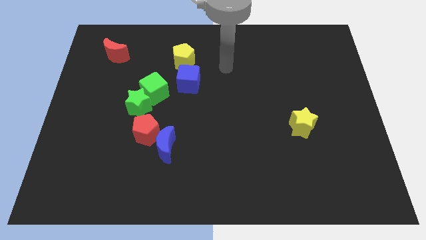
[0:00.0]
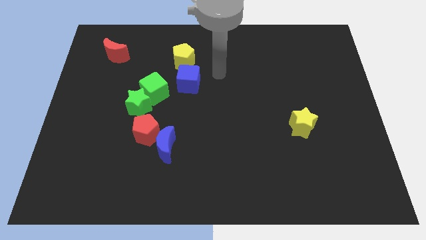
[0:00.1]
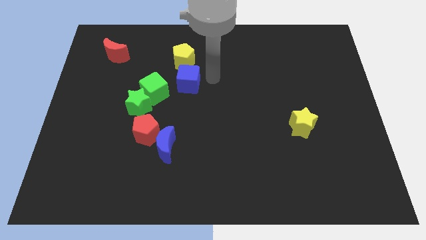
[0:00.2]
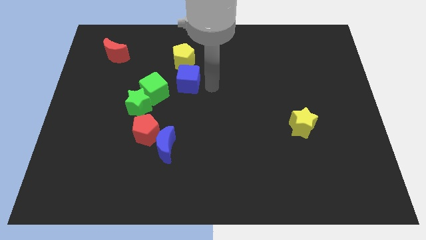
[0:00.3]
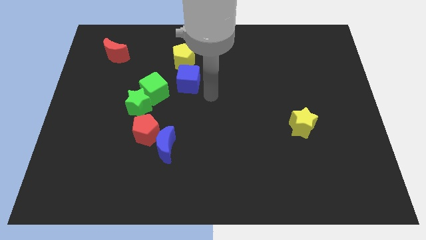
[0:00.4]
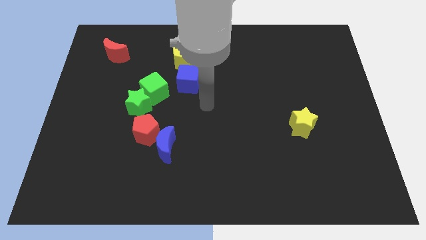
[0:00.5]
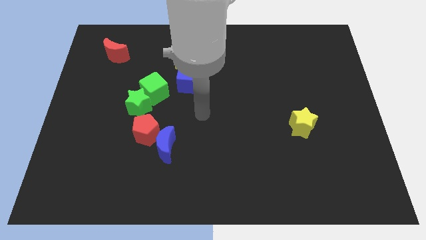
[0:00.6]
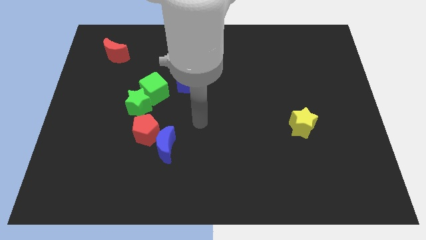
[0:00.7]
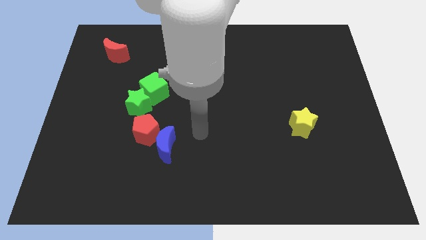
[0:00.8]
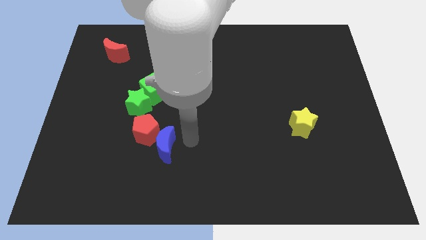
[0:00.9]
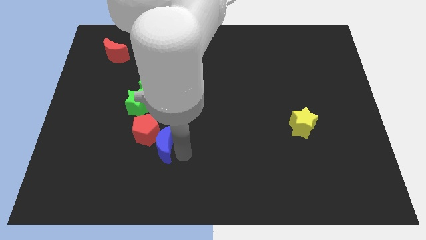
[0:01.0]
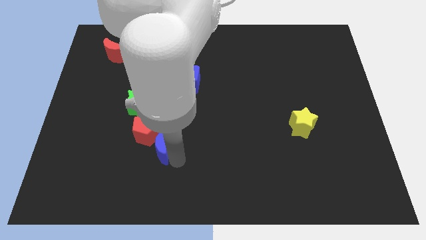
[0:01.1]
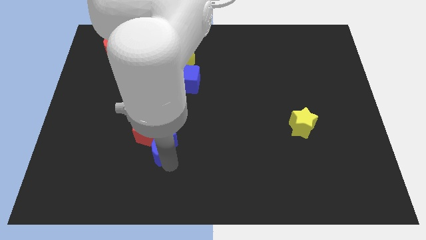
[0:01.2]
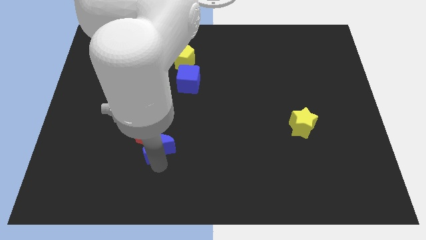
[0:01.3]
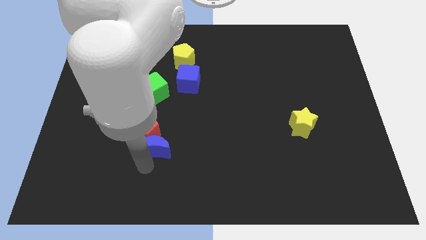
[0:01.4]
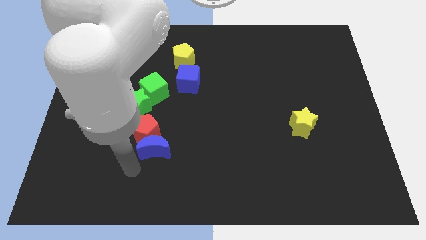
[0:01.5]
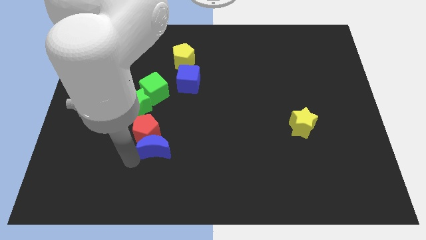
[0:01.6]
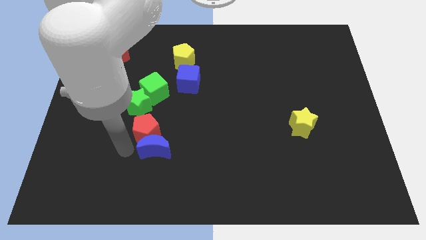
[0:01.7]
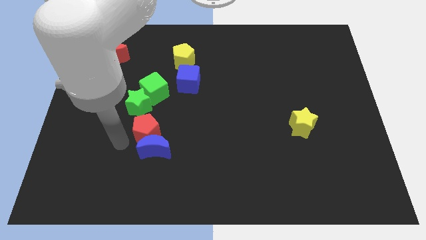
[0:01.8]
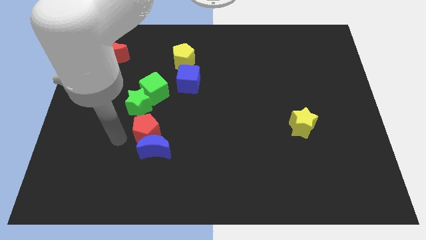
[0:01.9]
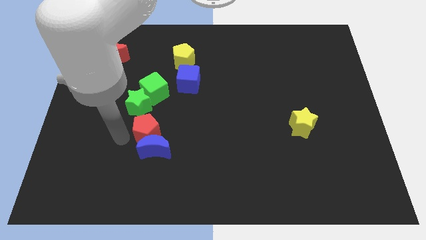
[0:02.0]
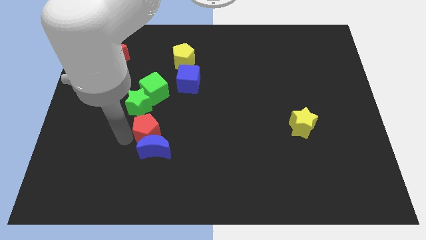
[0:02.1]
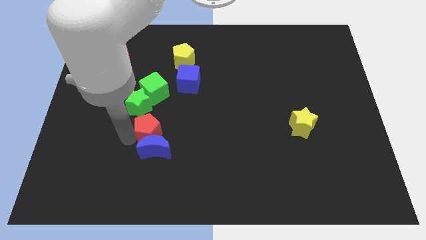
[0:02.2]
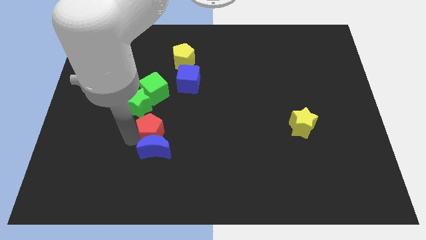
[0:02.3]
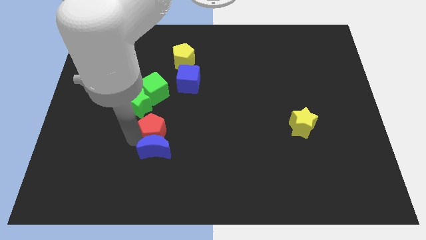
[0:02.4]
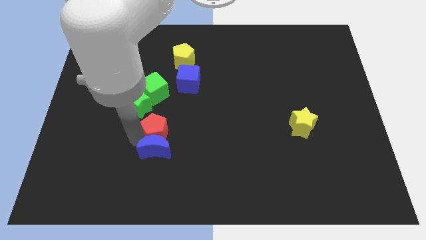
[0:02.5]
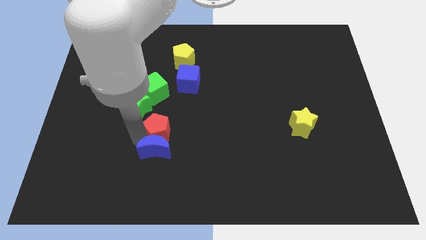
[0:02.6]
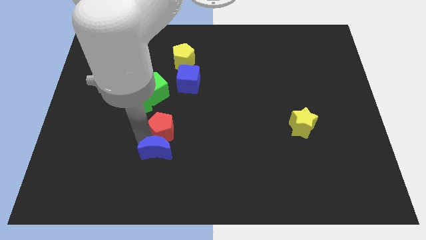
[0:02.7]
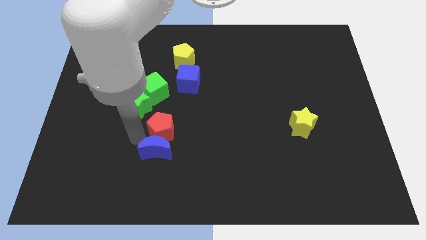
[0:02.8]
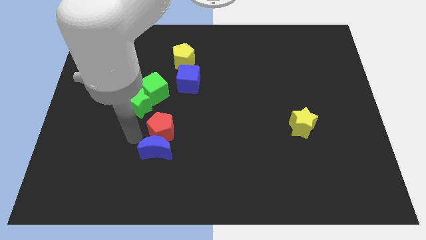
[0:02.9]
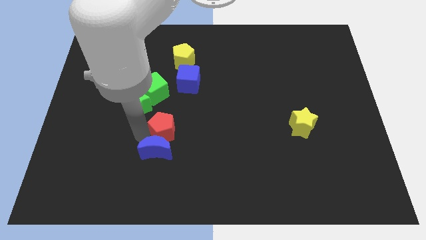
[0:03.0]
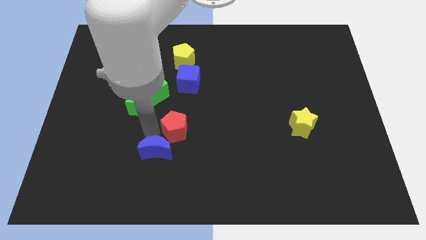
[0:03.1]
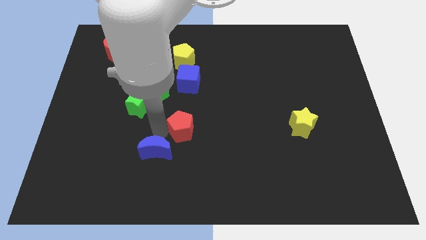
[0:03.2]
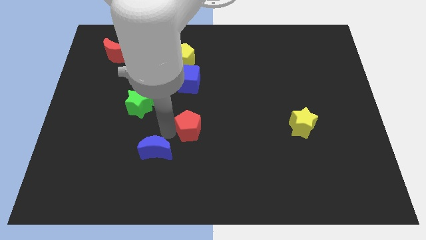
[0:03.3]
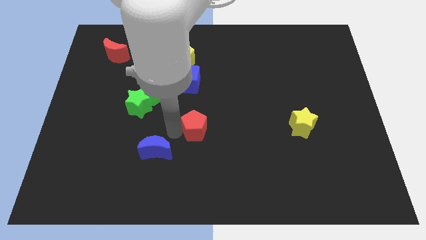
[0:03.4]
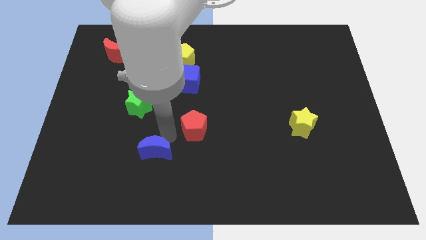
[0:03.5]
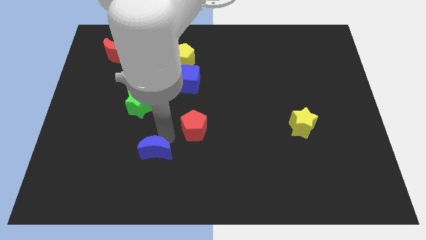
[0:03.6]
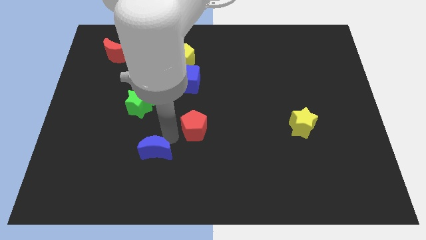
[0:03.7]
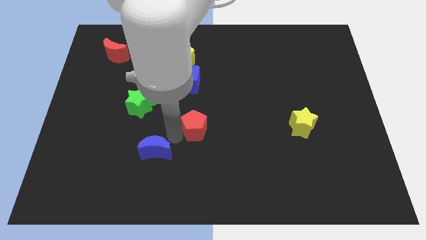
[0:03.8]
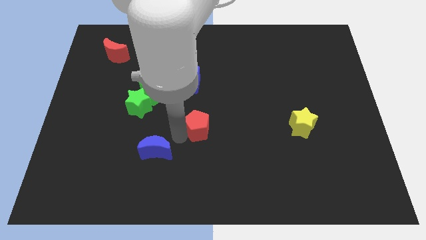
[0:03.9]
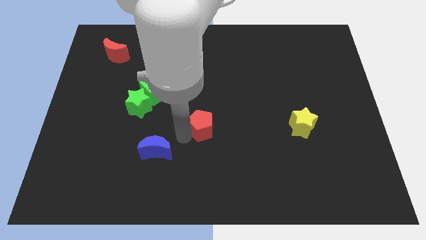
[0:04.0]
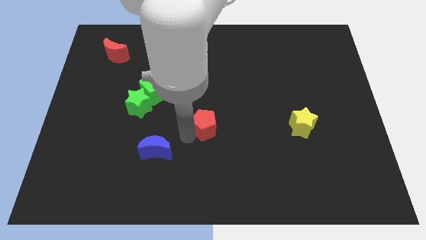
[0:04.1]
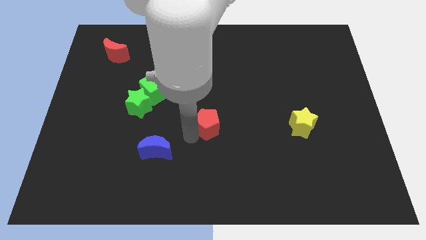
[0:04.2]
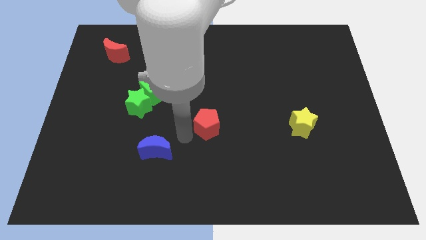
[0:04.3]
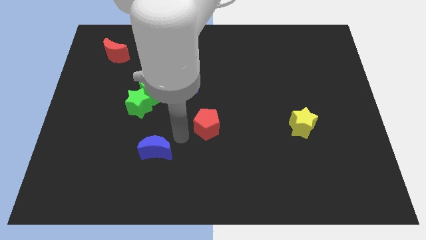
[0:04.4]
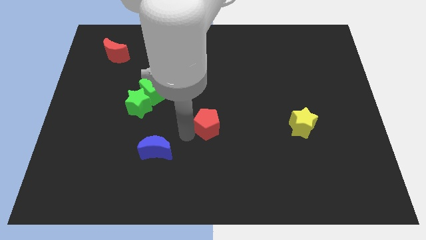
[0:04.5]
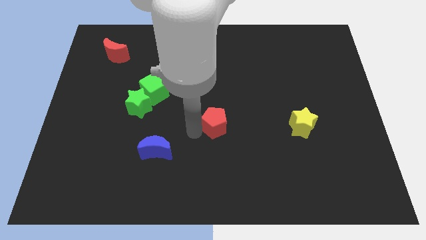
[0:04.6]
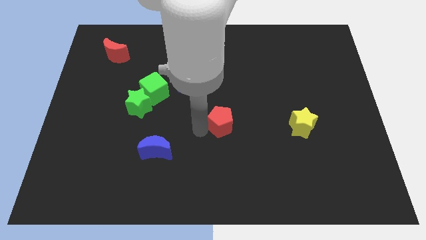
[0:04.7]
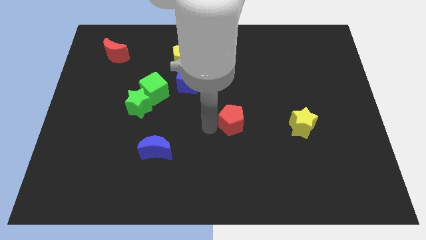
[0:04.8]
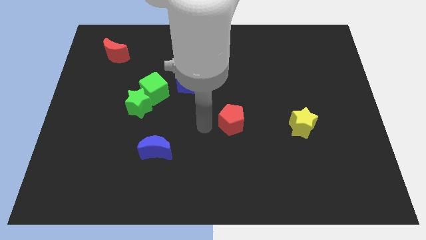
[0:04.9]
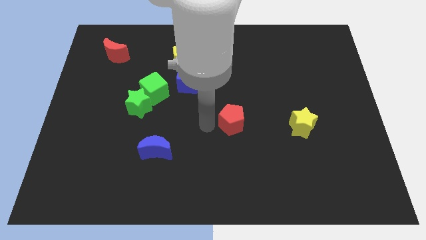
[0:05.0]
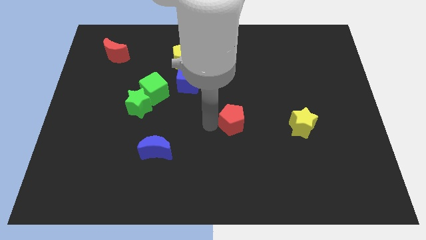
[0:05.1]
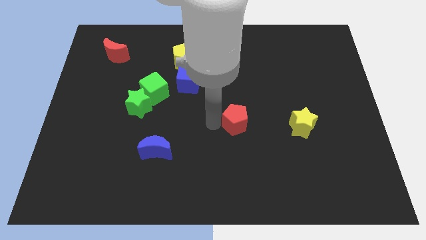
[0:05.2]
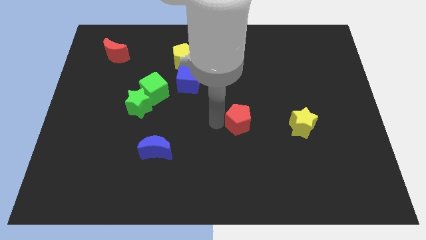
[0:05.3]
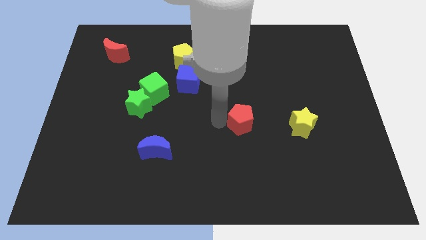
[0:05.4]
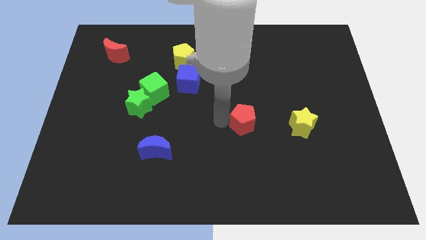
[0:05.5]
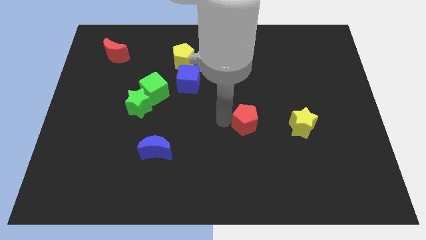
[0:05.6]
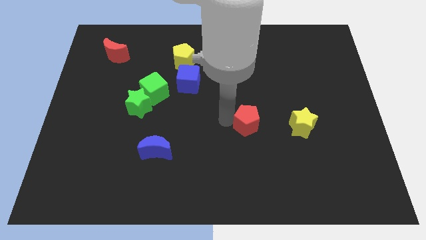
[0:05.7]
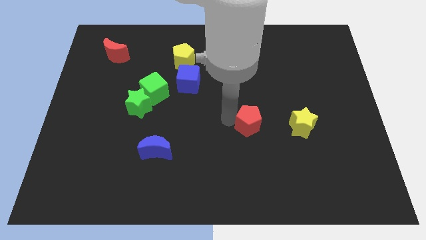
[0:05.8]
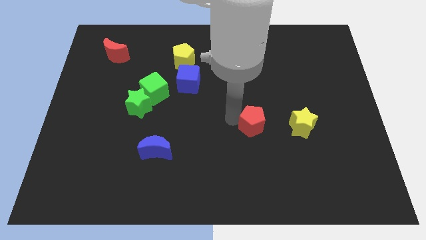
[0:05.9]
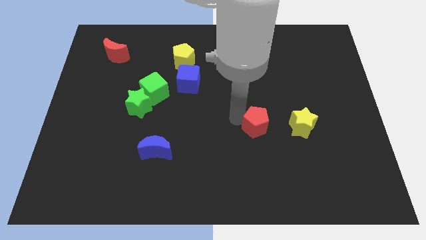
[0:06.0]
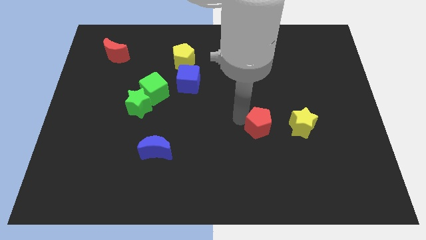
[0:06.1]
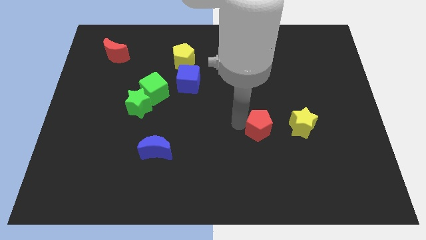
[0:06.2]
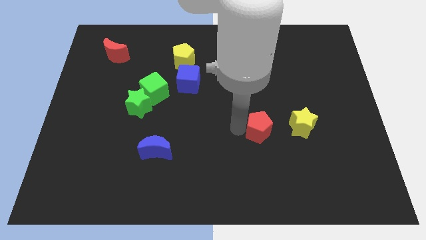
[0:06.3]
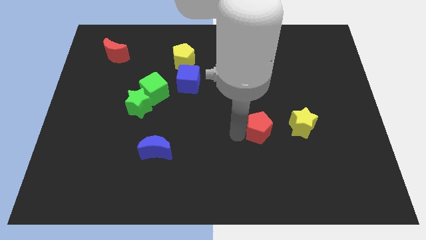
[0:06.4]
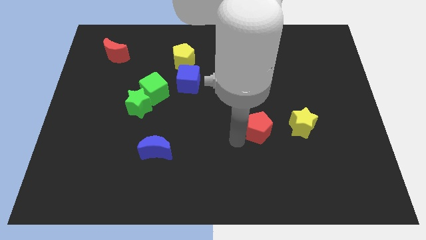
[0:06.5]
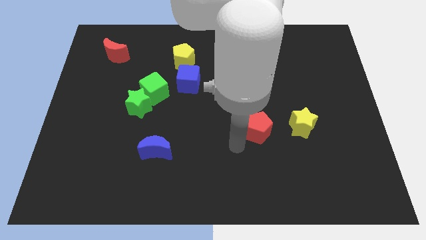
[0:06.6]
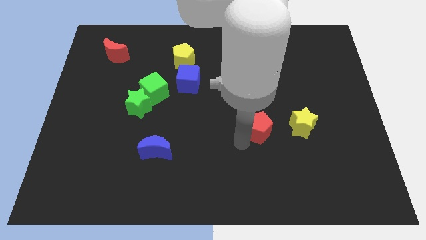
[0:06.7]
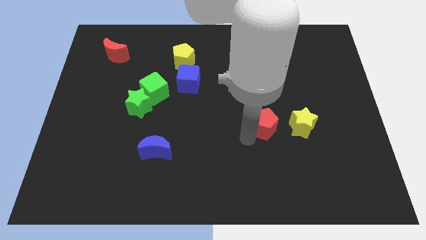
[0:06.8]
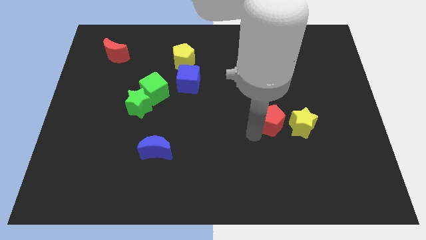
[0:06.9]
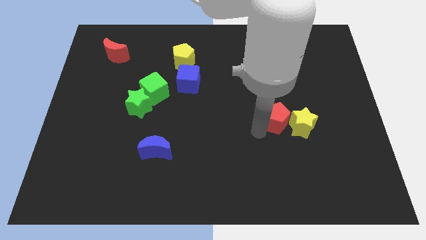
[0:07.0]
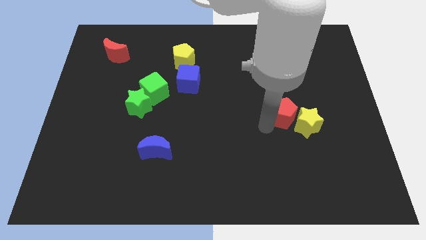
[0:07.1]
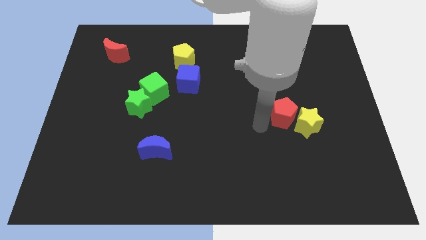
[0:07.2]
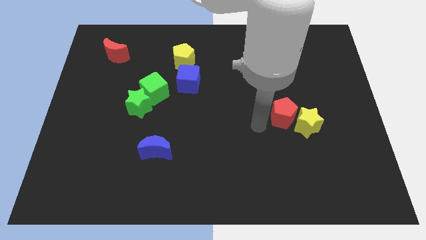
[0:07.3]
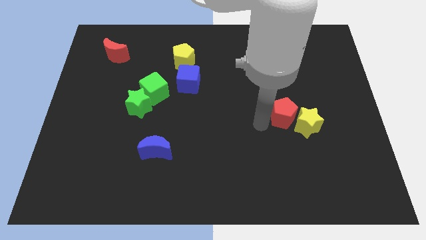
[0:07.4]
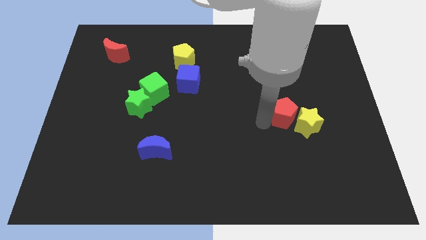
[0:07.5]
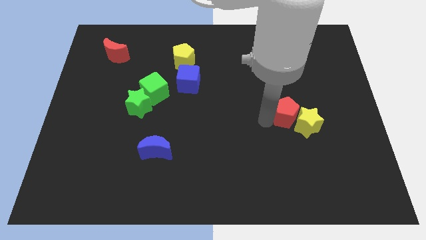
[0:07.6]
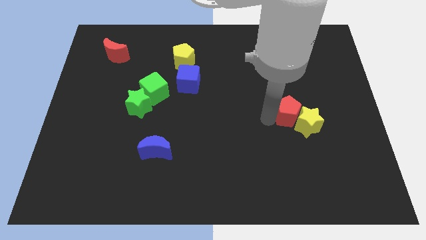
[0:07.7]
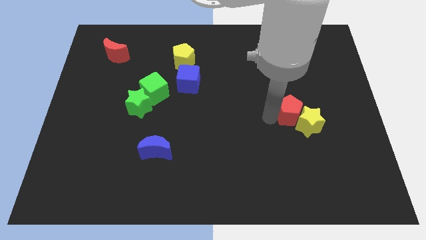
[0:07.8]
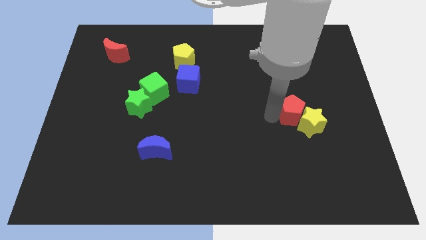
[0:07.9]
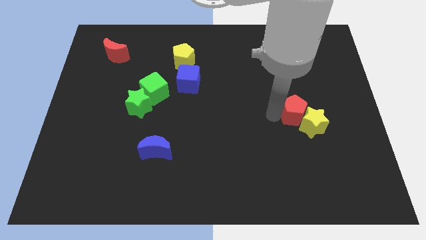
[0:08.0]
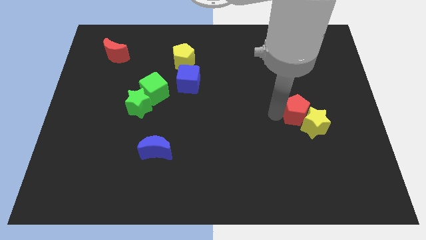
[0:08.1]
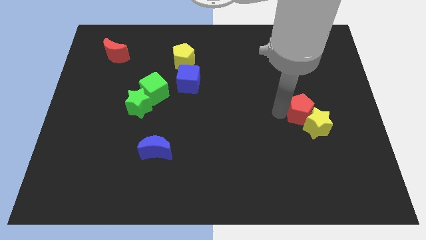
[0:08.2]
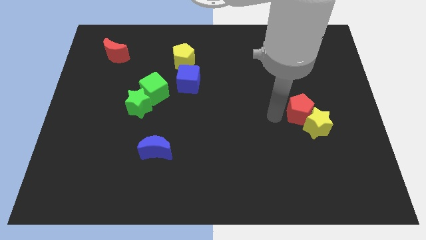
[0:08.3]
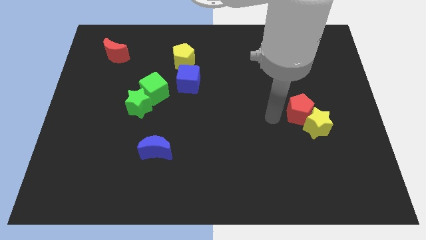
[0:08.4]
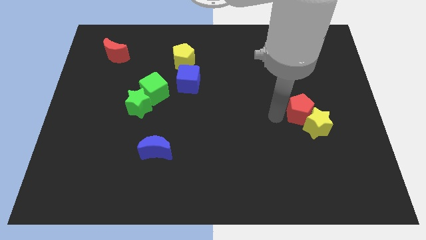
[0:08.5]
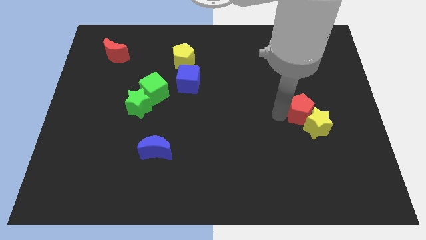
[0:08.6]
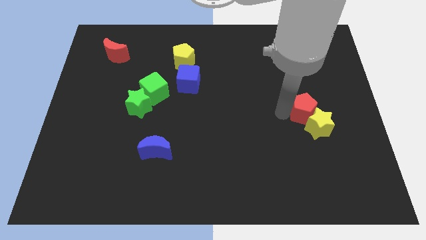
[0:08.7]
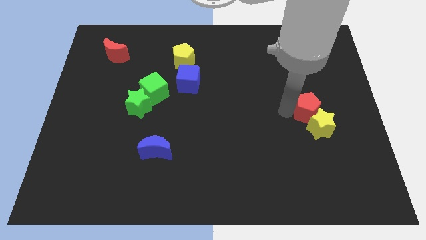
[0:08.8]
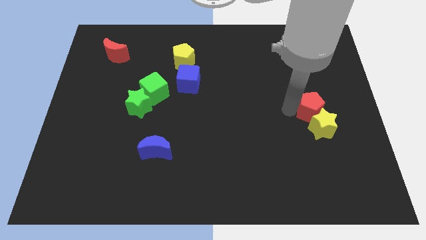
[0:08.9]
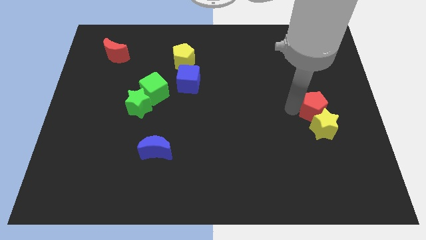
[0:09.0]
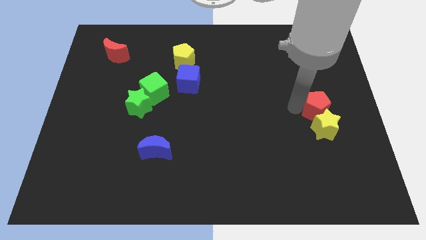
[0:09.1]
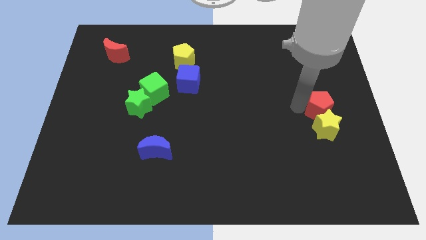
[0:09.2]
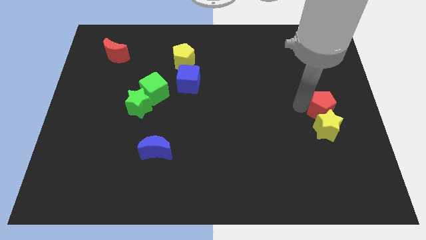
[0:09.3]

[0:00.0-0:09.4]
push the red pentagon to the right side of the board
